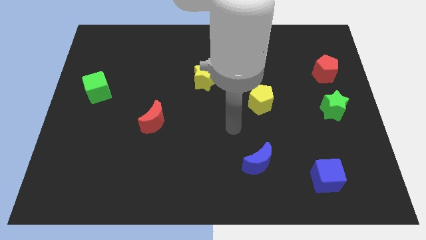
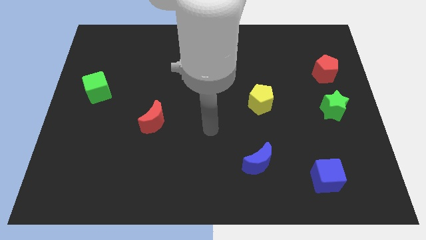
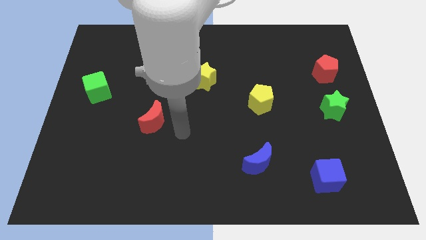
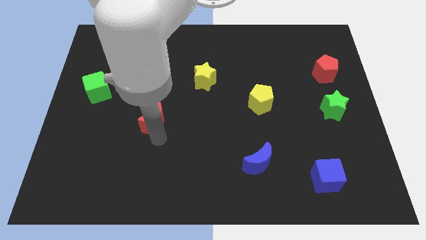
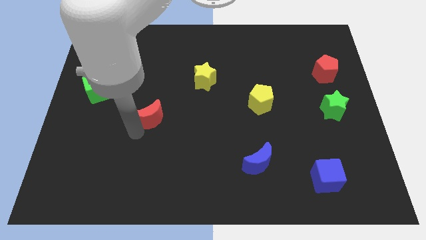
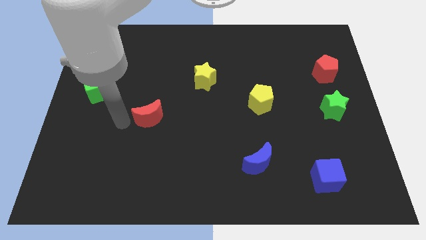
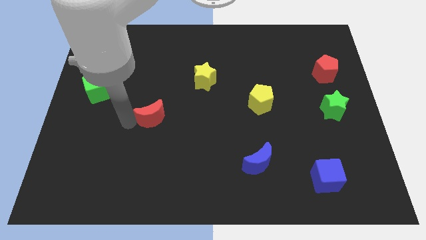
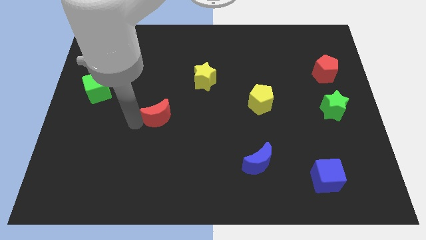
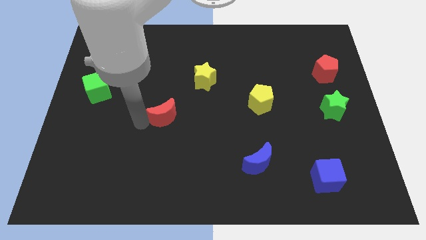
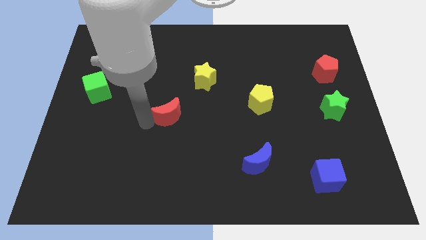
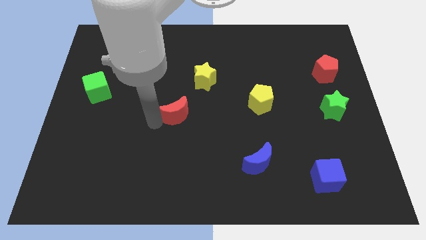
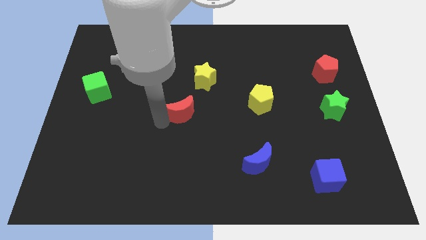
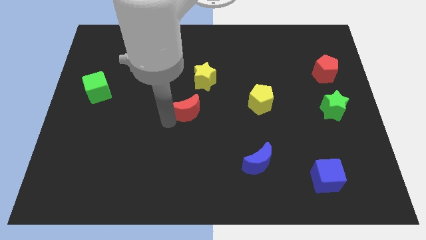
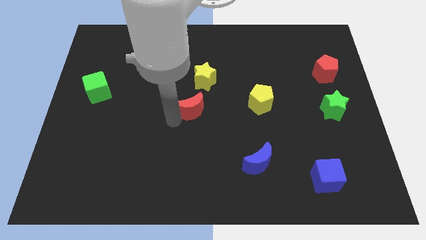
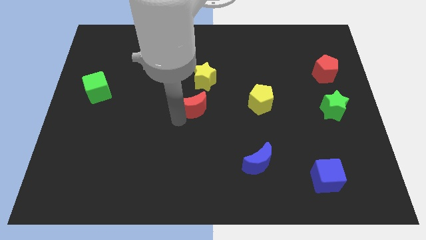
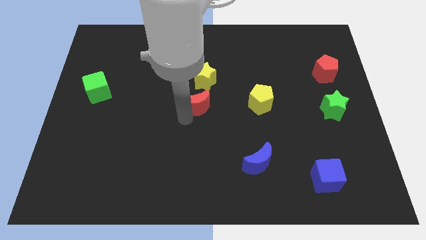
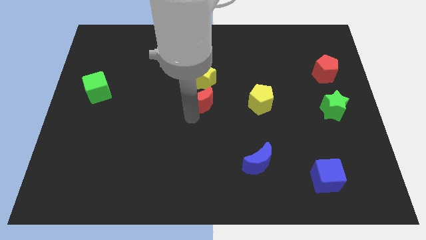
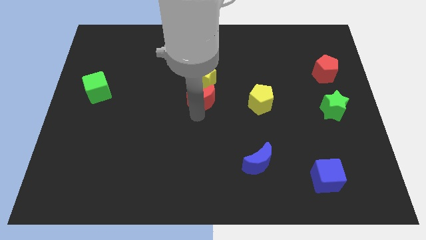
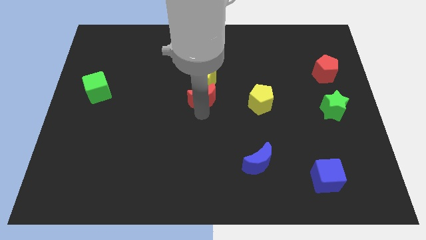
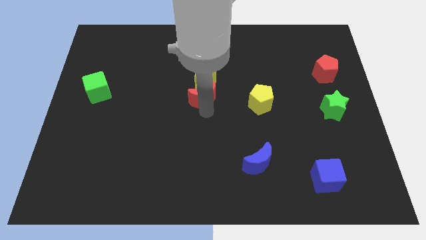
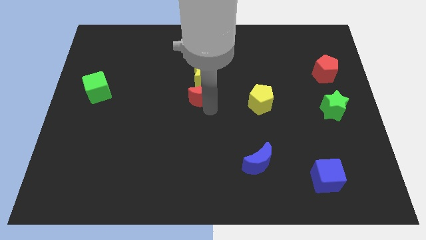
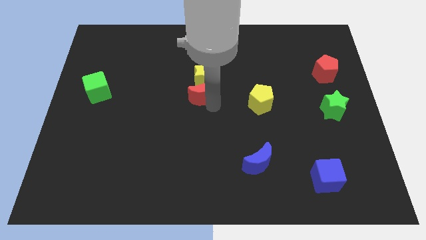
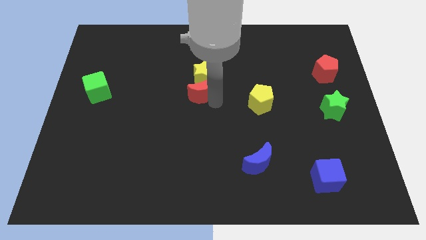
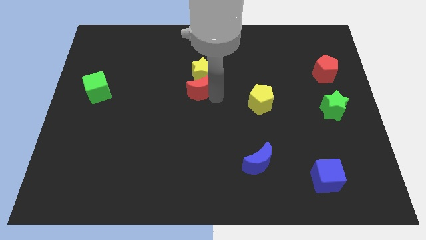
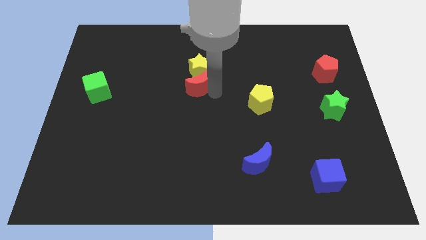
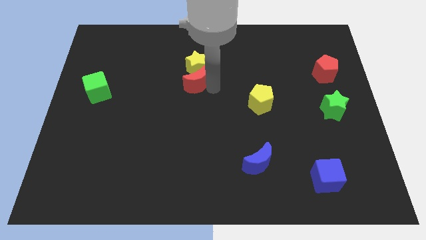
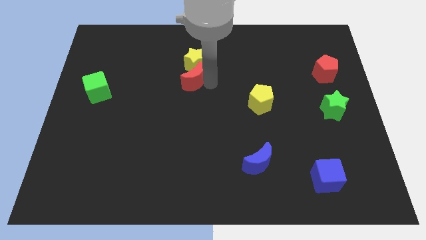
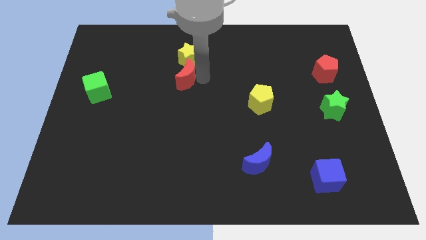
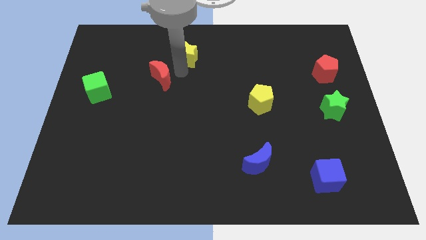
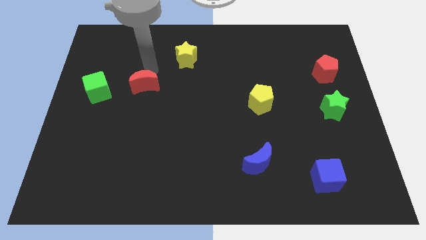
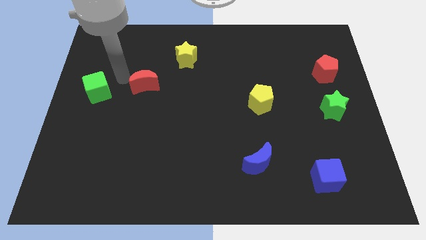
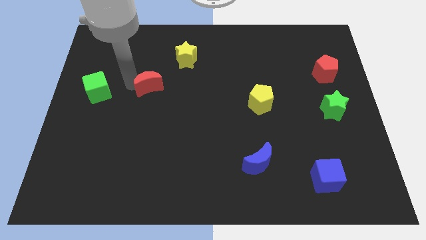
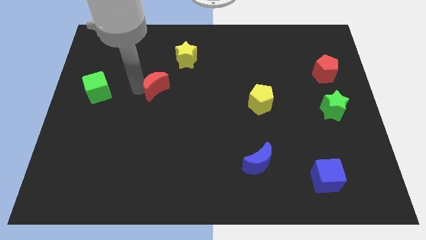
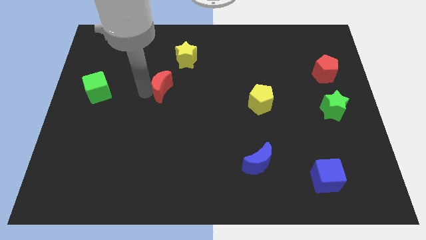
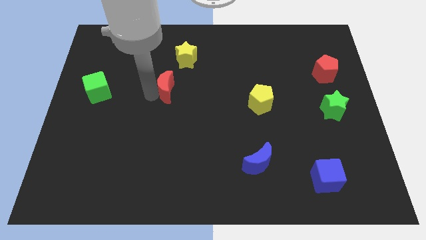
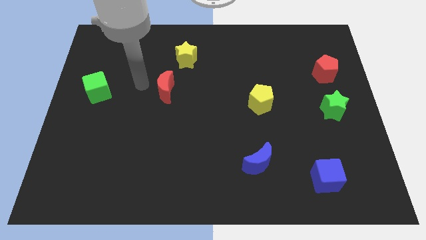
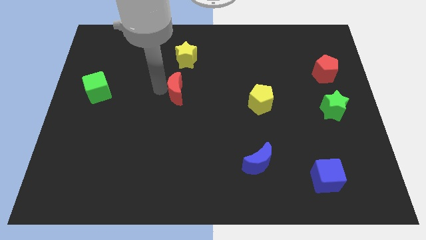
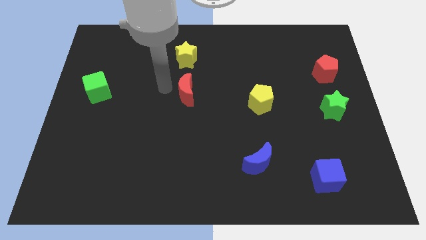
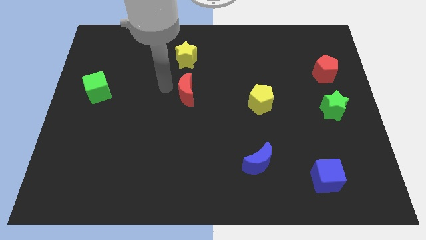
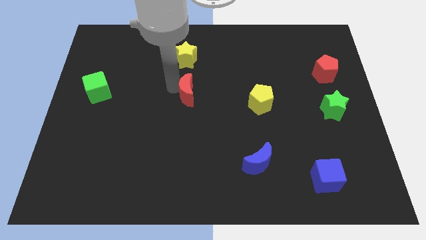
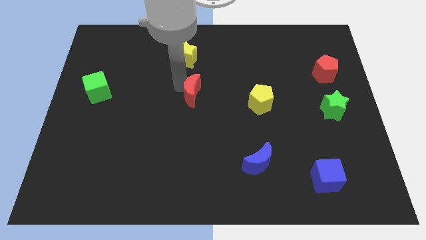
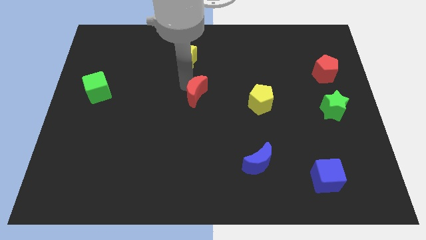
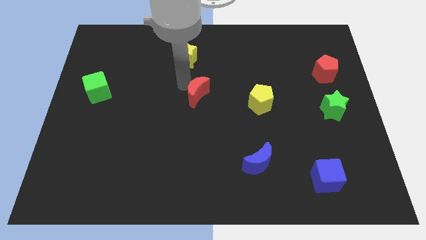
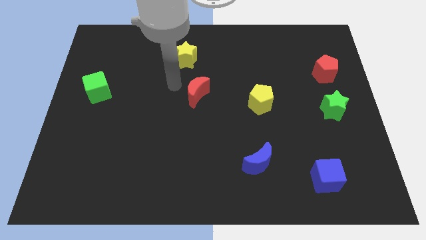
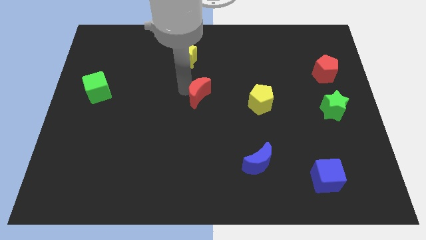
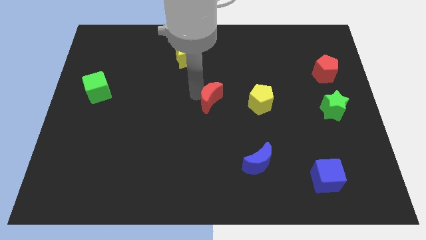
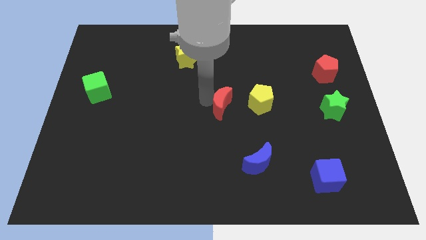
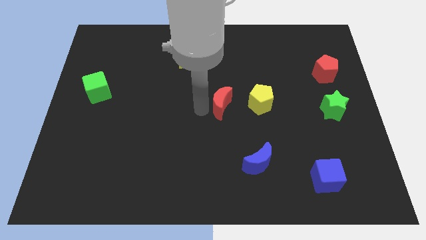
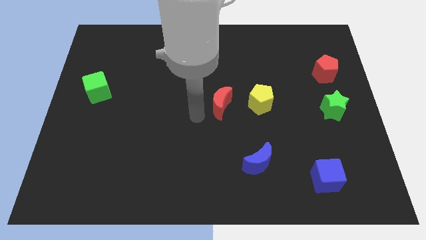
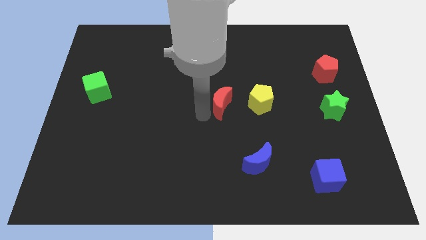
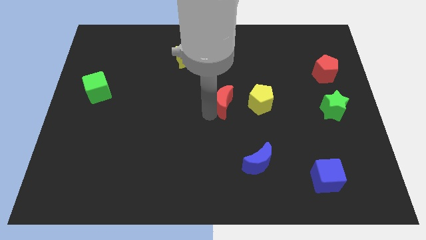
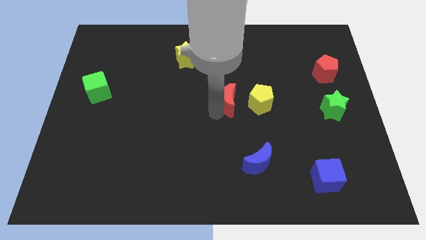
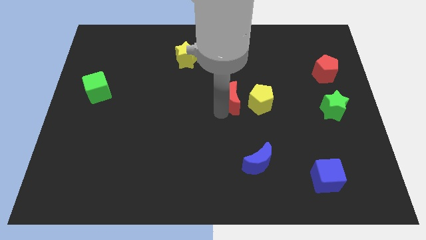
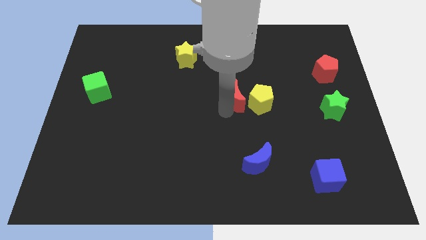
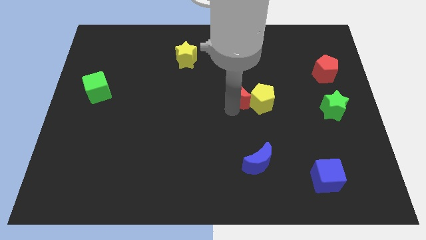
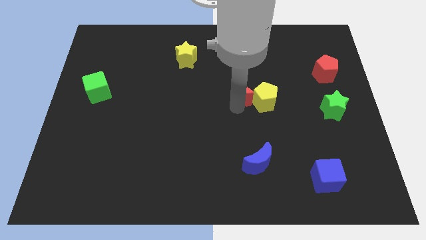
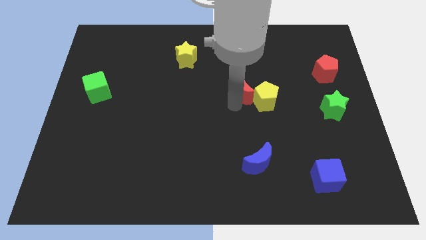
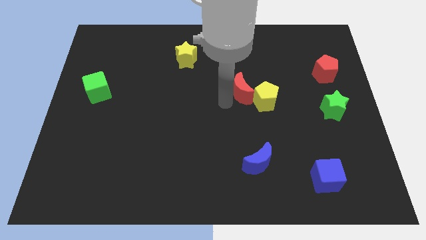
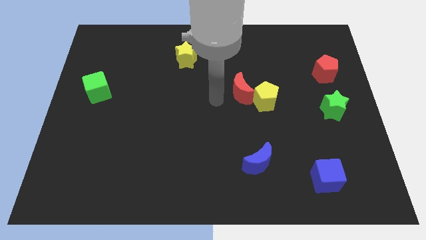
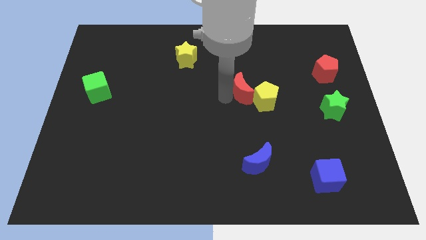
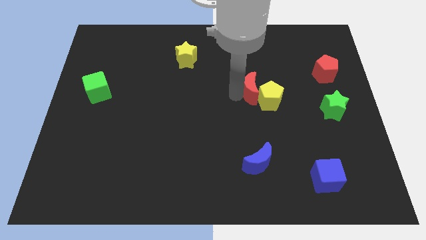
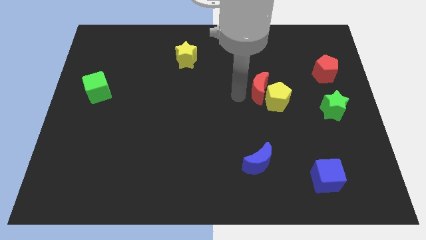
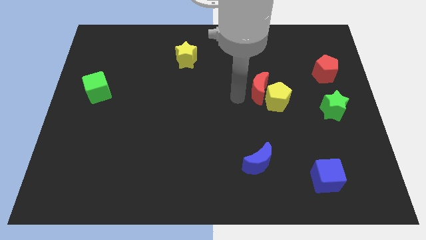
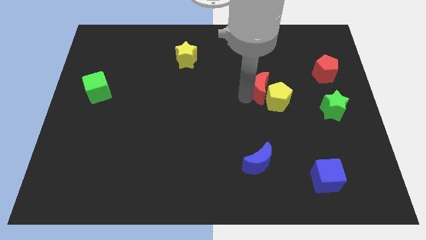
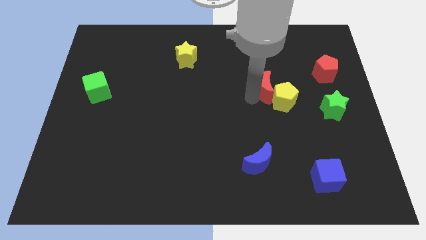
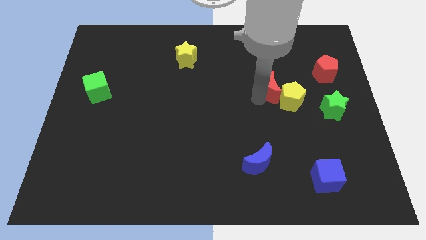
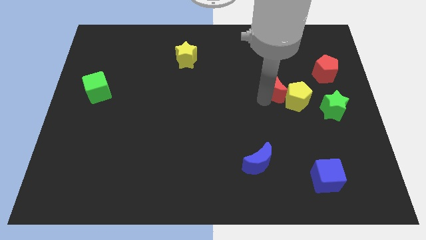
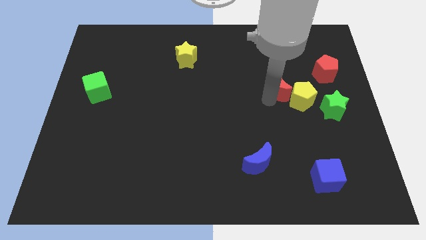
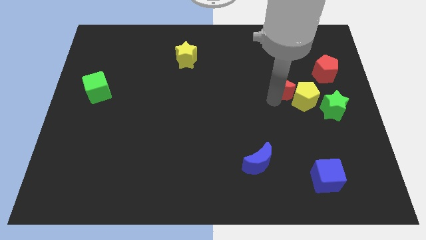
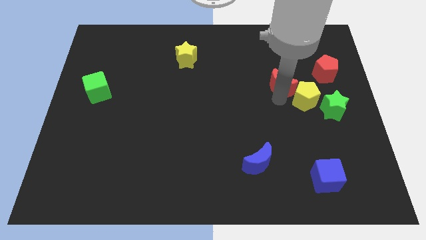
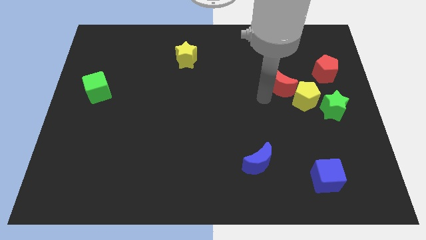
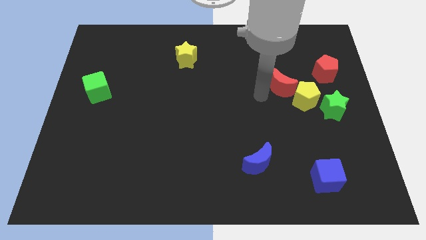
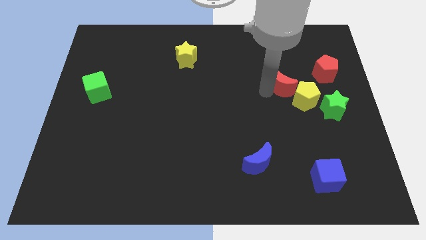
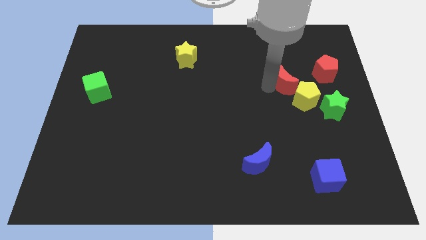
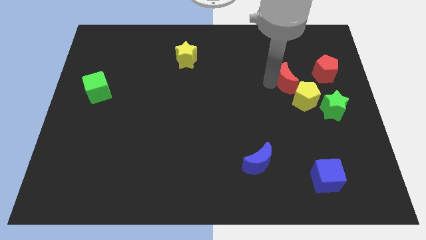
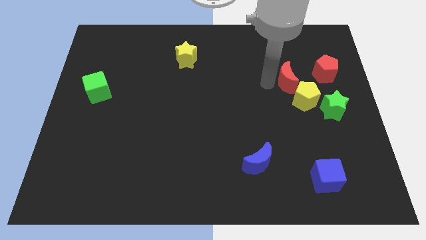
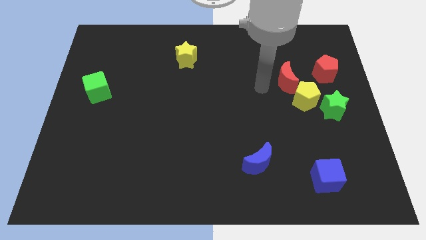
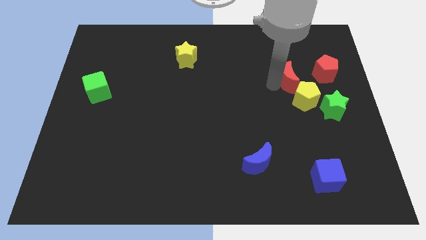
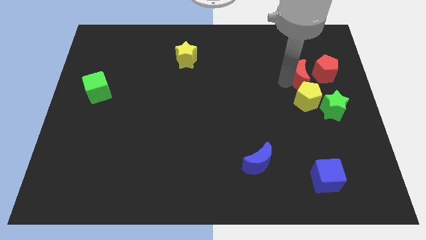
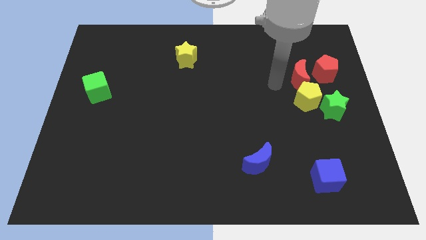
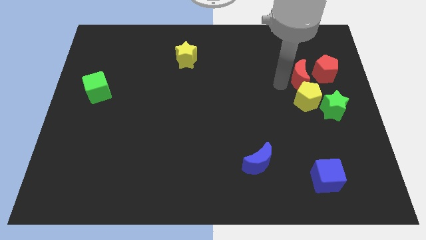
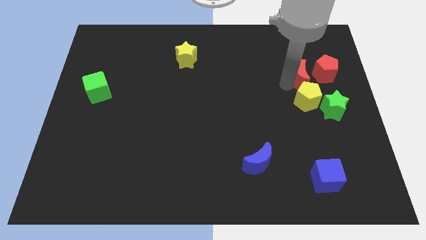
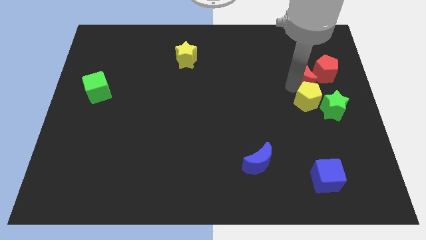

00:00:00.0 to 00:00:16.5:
put the red moon close to the red pentagon
